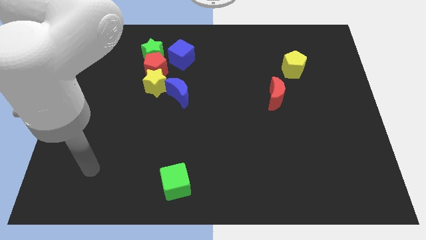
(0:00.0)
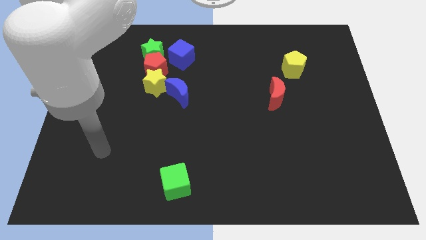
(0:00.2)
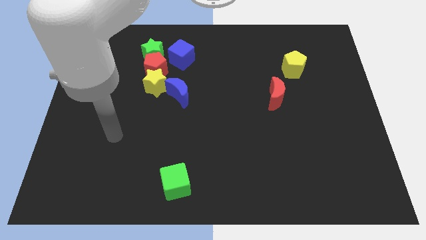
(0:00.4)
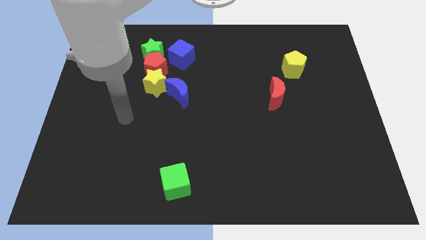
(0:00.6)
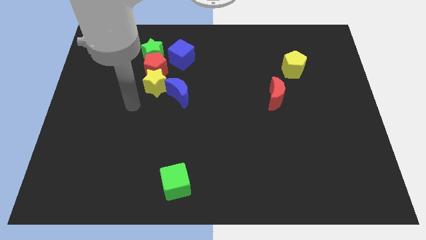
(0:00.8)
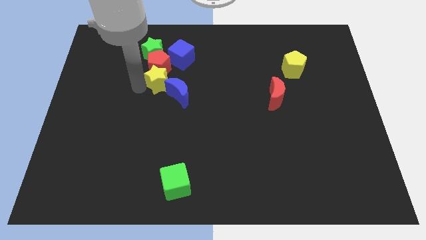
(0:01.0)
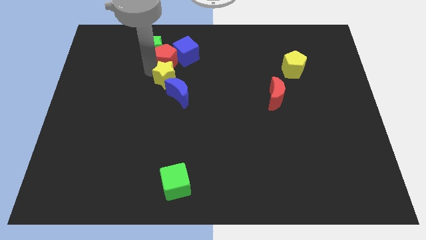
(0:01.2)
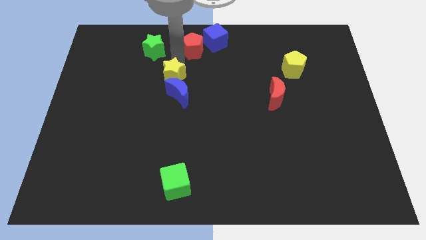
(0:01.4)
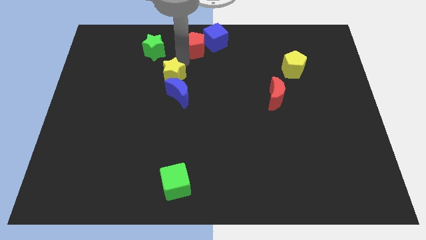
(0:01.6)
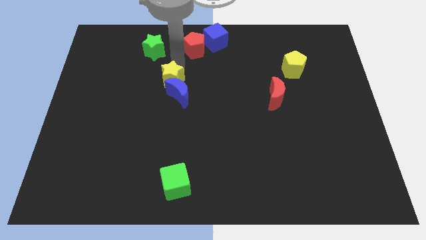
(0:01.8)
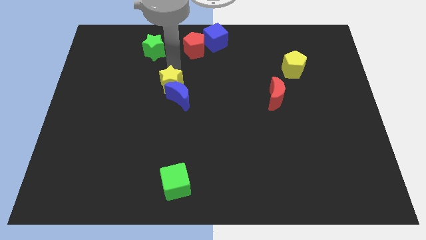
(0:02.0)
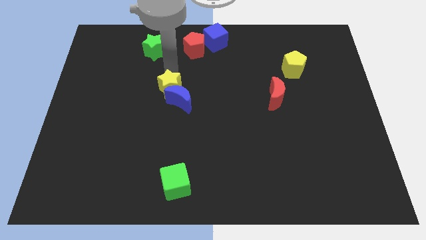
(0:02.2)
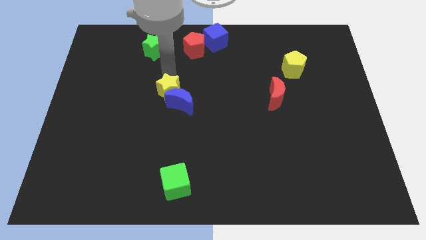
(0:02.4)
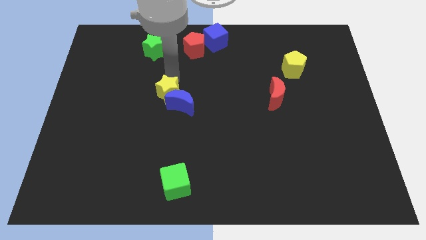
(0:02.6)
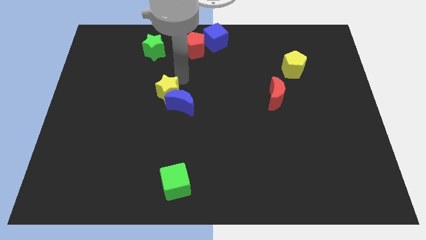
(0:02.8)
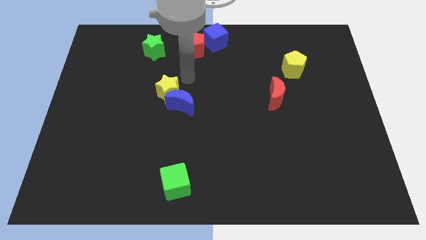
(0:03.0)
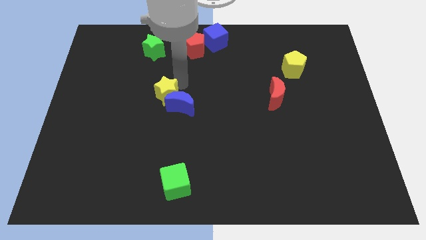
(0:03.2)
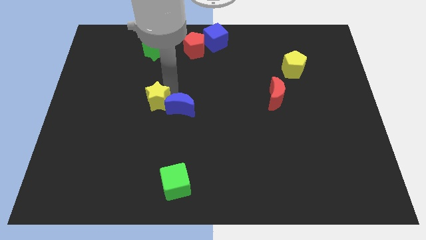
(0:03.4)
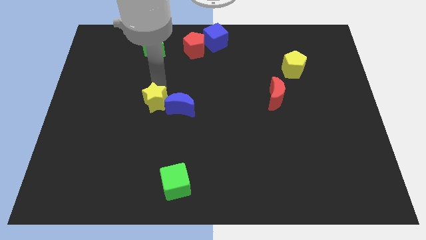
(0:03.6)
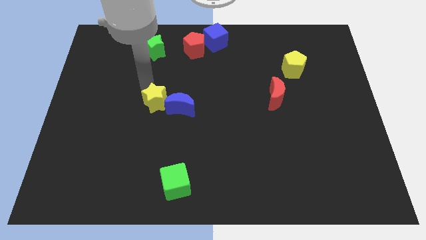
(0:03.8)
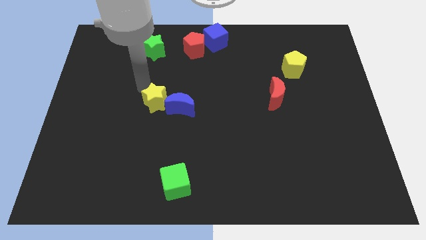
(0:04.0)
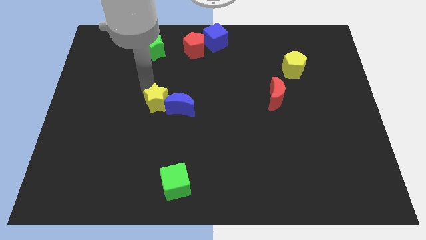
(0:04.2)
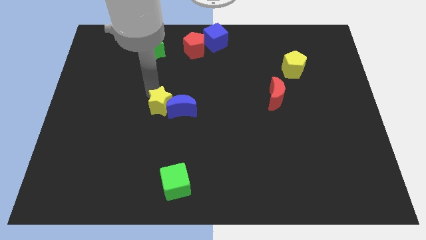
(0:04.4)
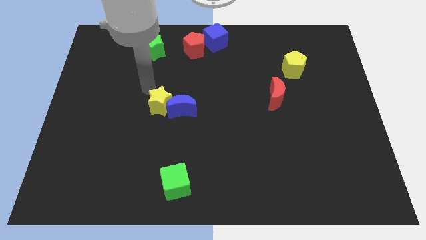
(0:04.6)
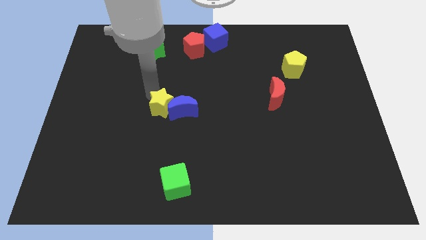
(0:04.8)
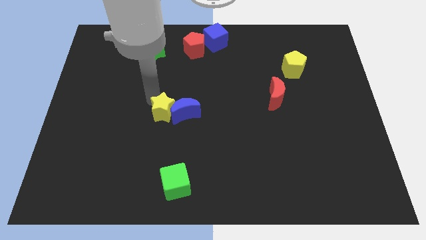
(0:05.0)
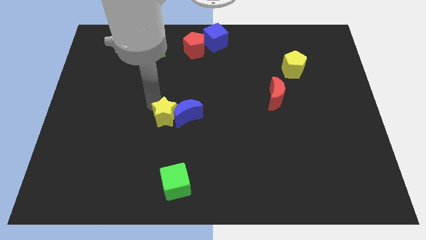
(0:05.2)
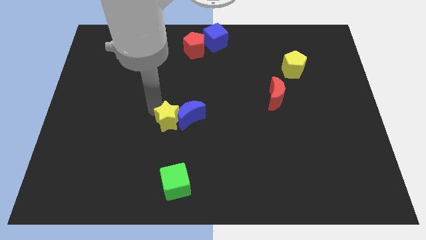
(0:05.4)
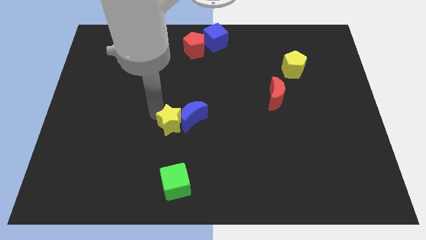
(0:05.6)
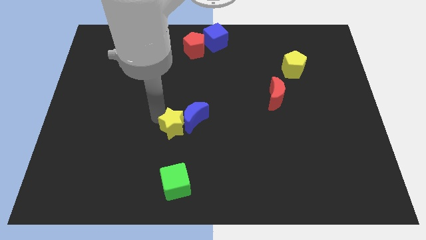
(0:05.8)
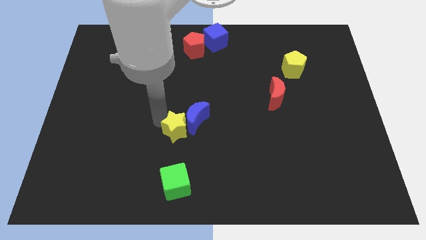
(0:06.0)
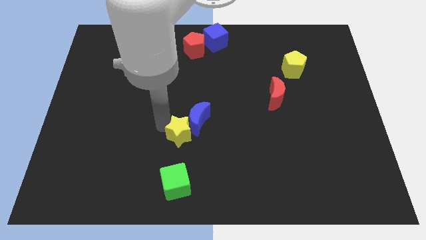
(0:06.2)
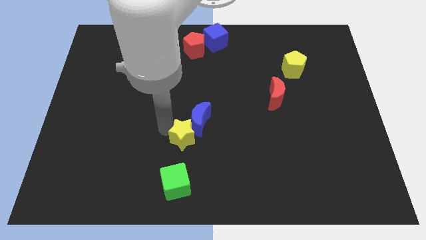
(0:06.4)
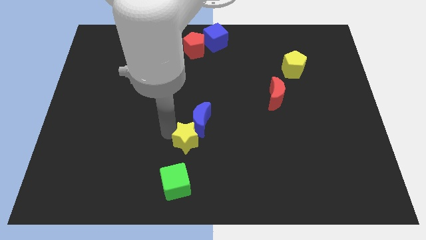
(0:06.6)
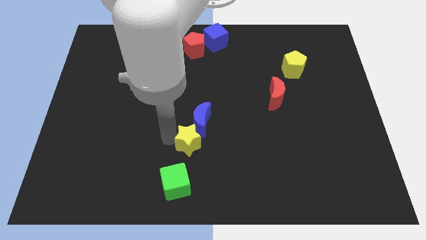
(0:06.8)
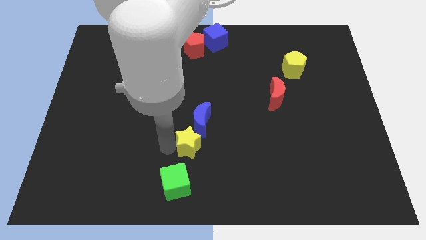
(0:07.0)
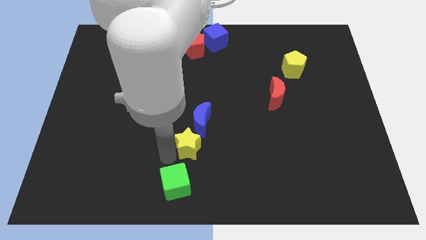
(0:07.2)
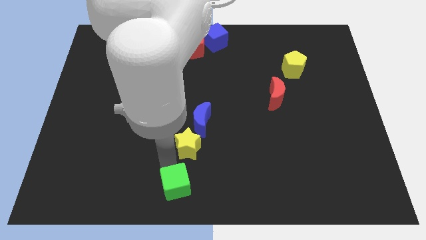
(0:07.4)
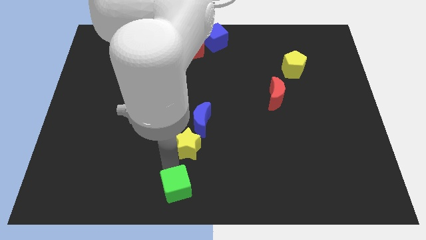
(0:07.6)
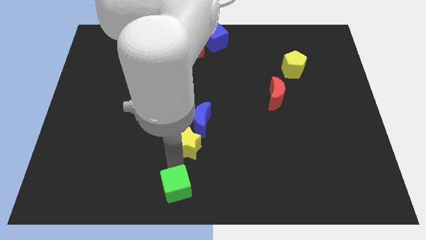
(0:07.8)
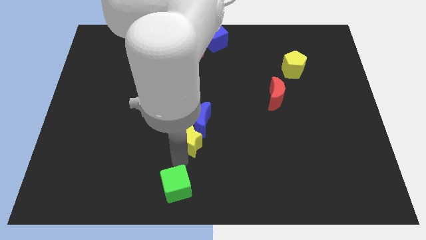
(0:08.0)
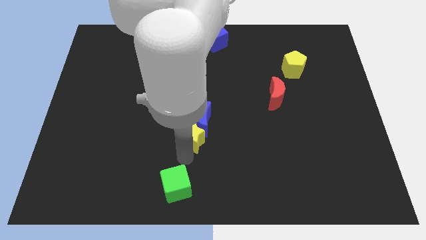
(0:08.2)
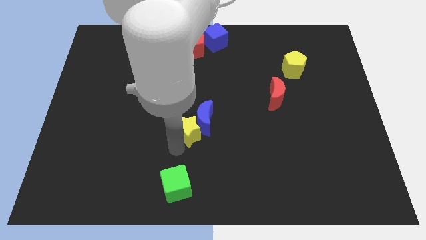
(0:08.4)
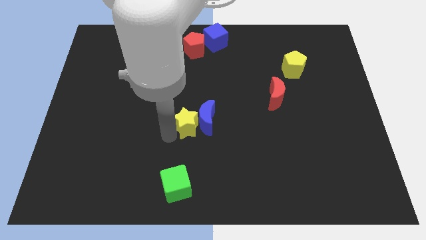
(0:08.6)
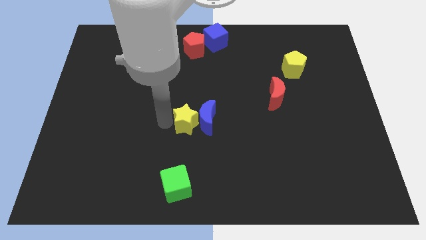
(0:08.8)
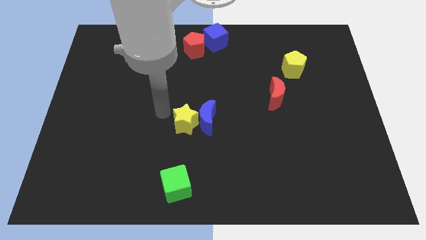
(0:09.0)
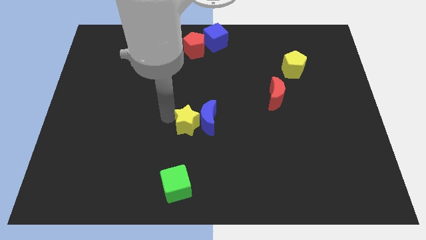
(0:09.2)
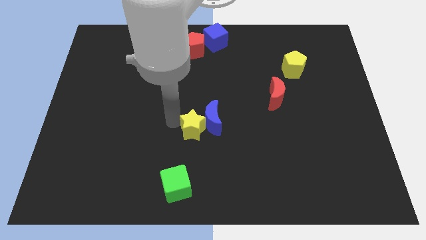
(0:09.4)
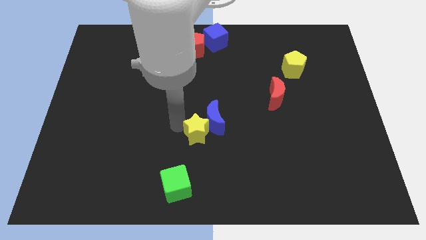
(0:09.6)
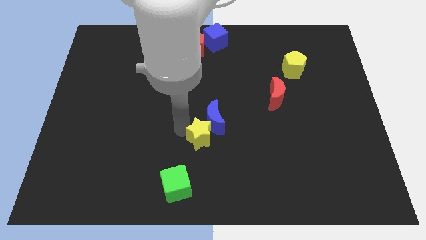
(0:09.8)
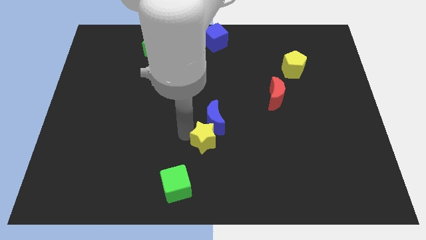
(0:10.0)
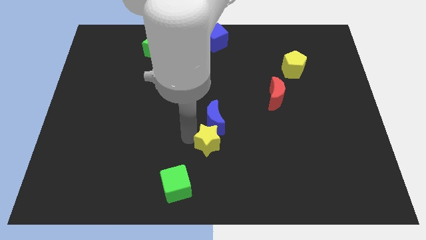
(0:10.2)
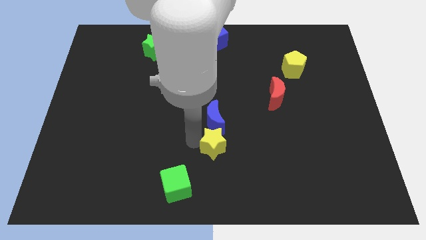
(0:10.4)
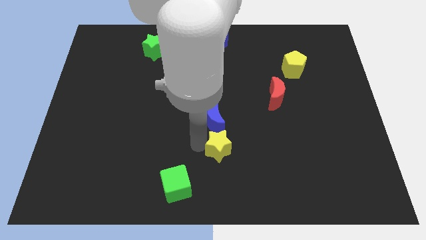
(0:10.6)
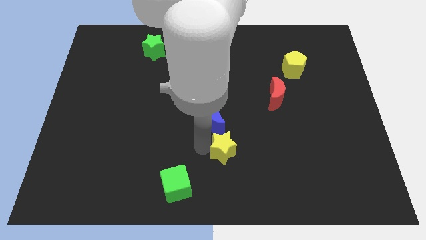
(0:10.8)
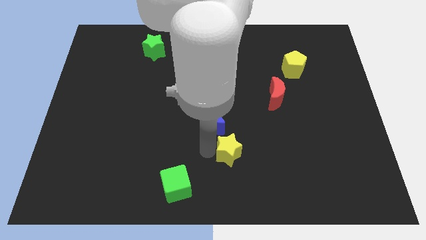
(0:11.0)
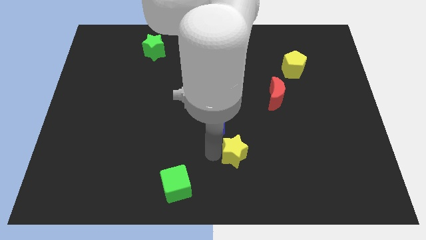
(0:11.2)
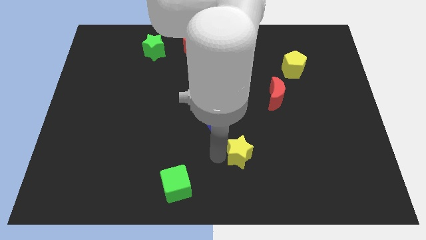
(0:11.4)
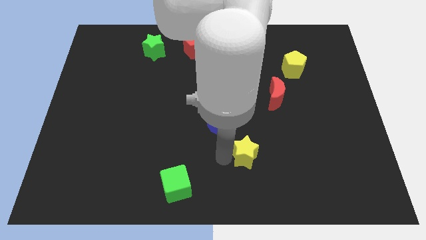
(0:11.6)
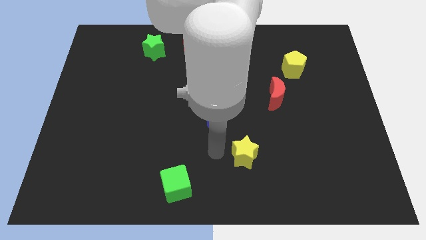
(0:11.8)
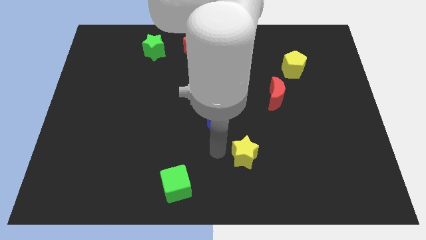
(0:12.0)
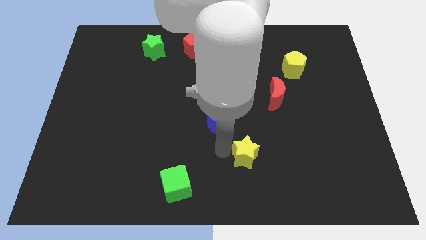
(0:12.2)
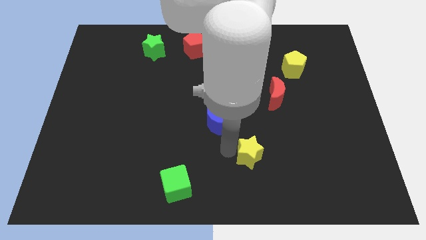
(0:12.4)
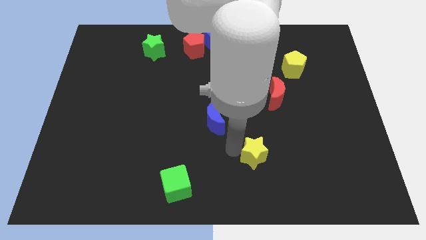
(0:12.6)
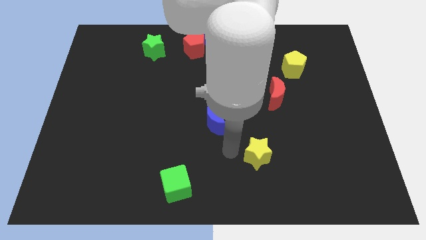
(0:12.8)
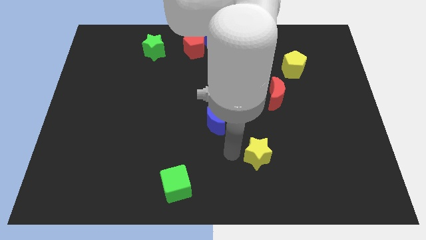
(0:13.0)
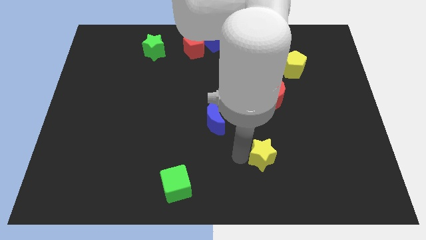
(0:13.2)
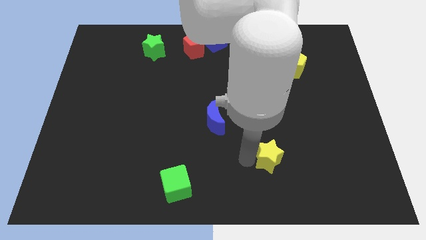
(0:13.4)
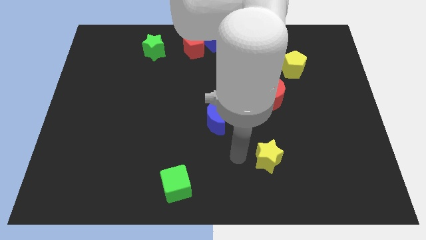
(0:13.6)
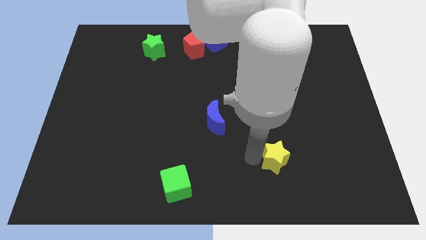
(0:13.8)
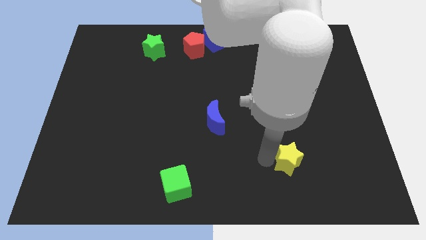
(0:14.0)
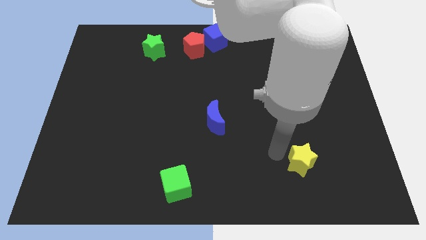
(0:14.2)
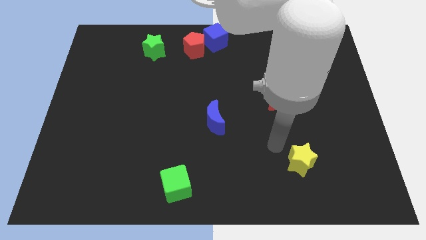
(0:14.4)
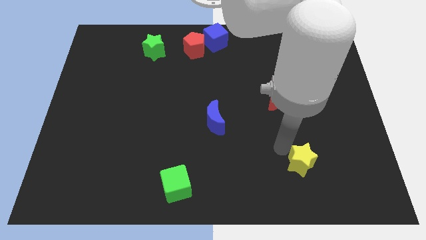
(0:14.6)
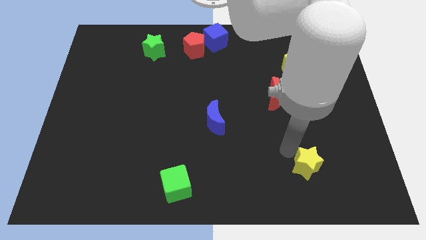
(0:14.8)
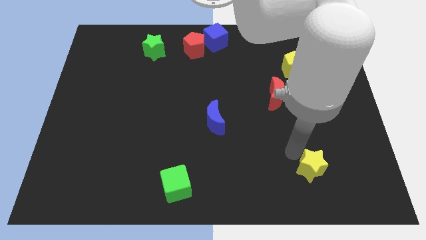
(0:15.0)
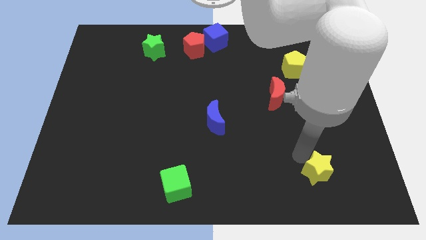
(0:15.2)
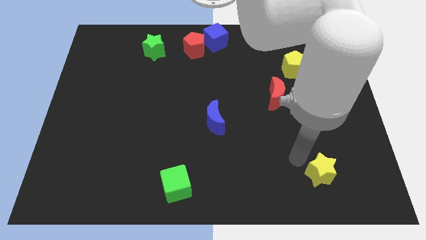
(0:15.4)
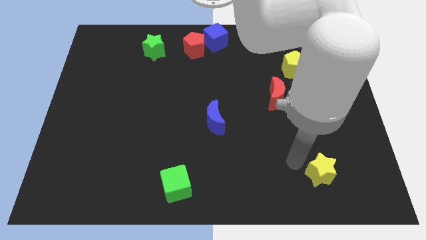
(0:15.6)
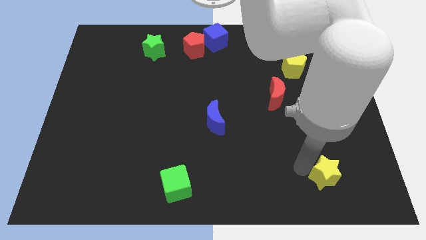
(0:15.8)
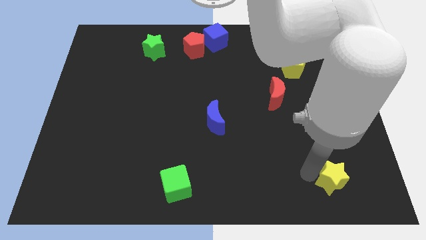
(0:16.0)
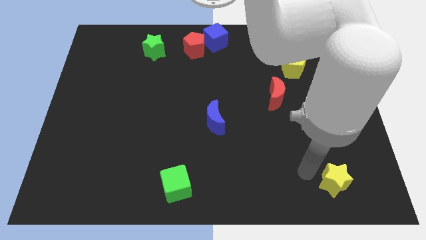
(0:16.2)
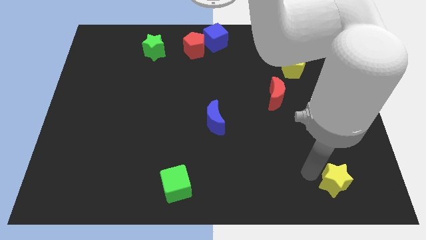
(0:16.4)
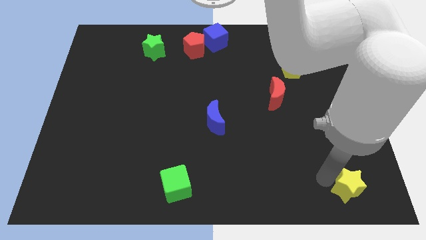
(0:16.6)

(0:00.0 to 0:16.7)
move the yellow star to the bottom right of the board
